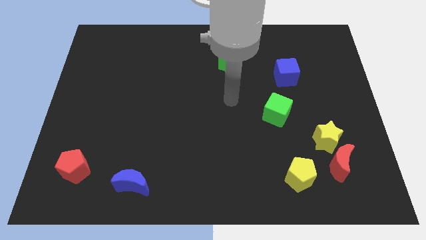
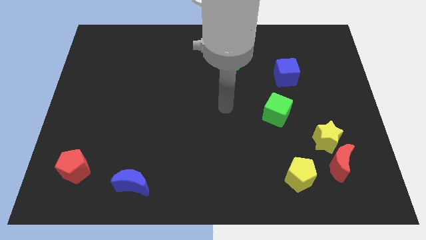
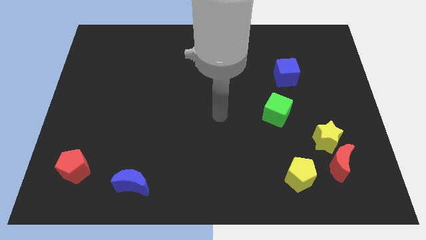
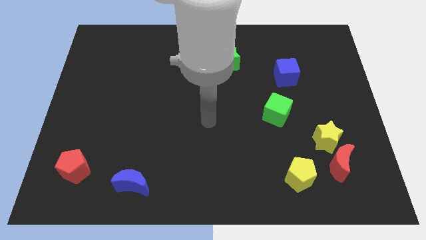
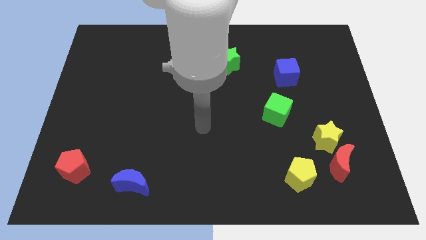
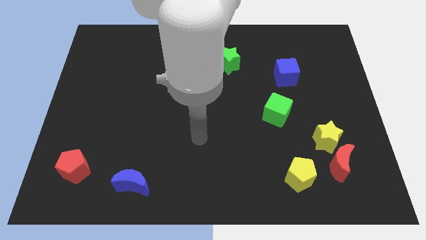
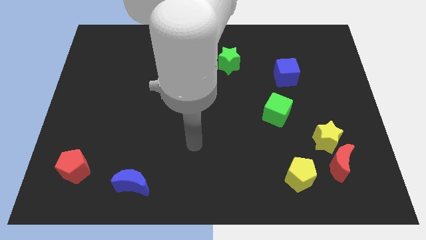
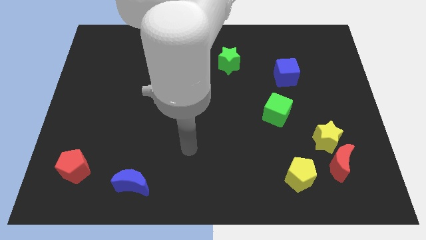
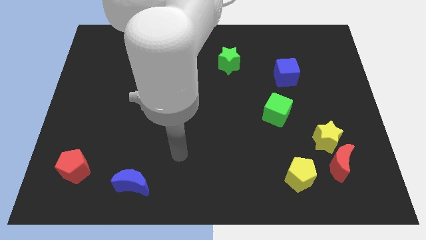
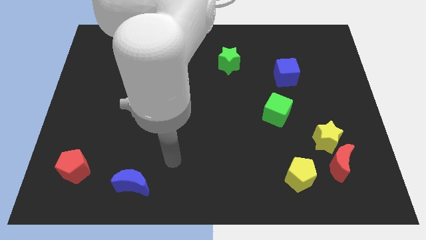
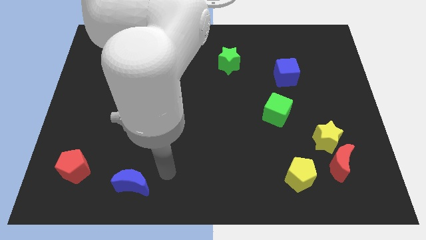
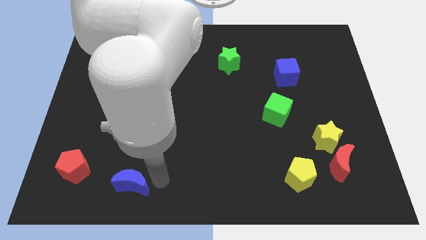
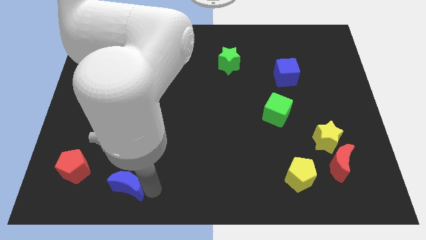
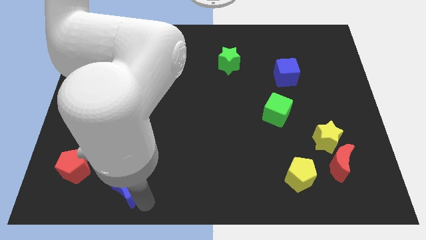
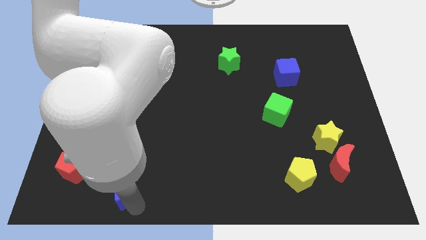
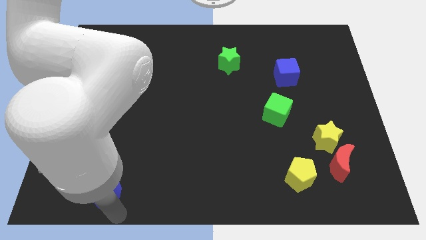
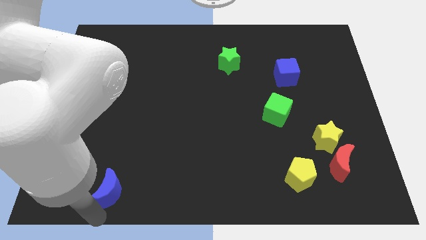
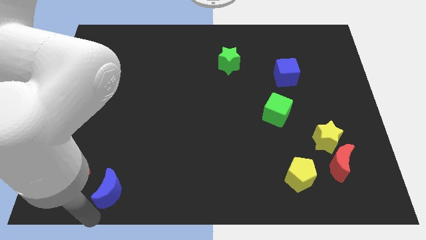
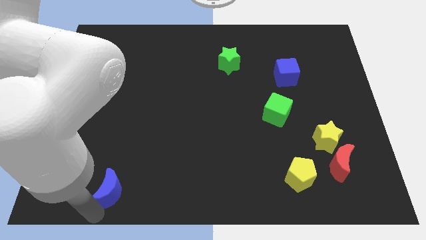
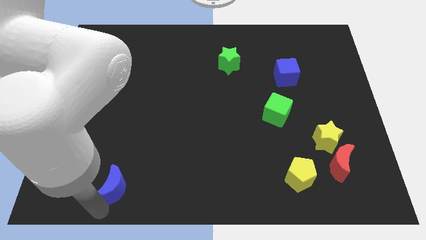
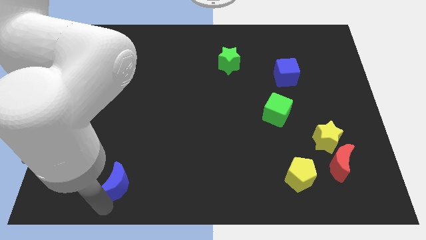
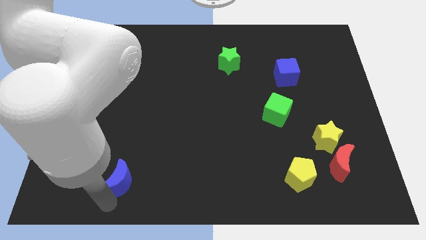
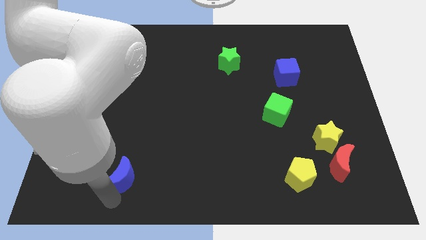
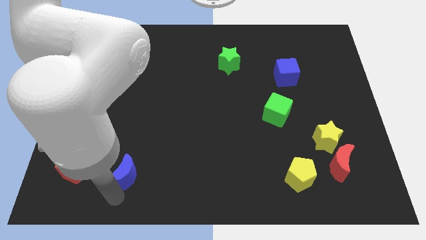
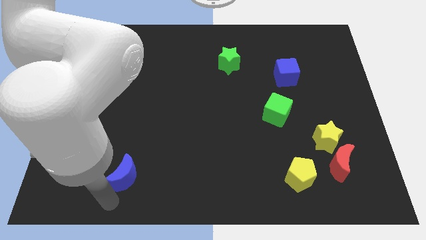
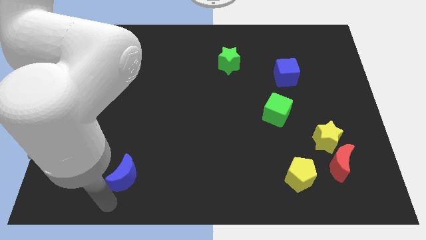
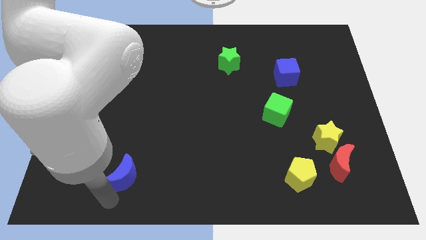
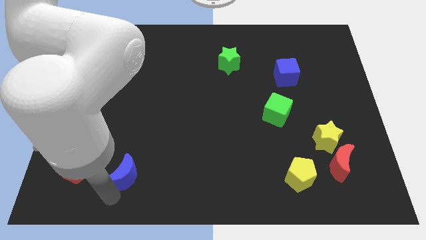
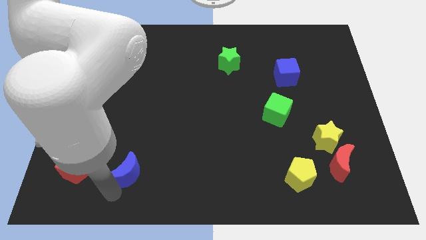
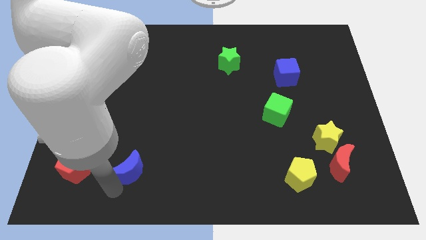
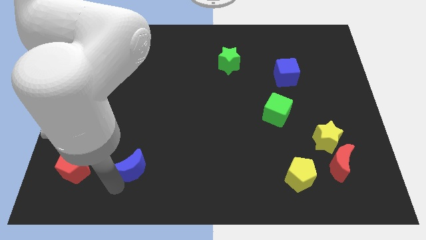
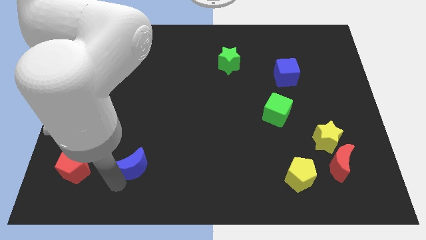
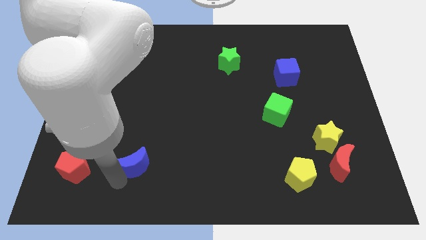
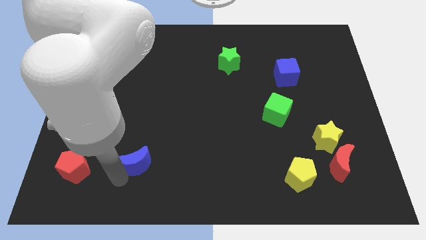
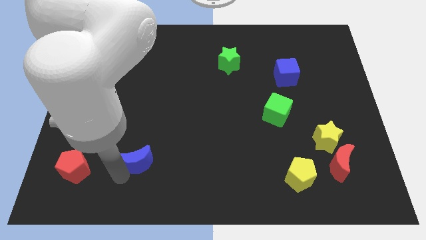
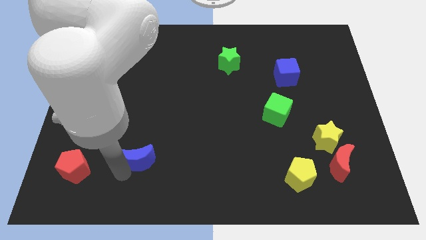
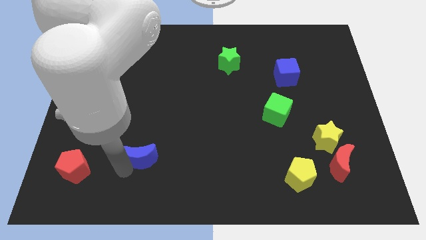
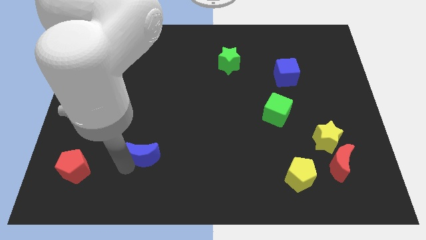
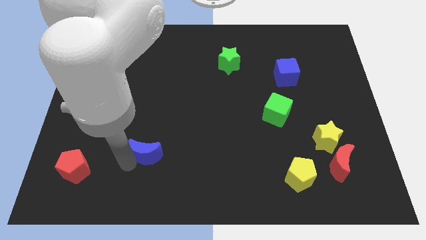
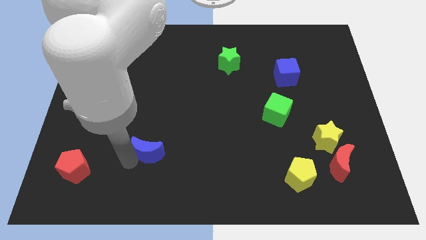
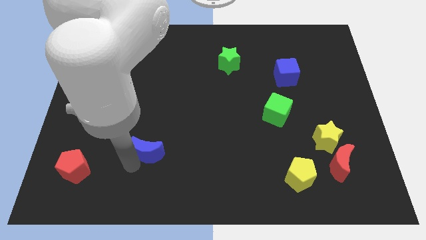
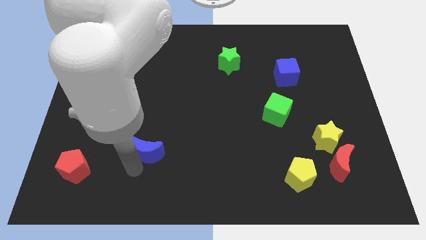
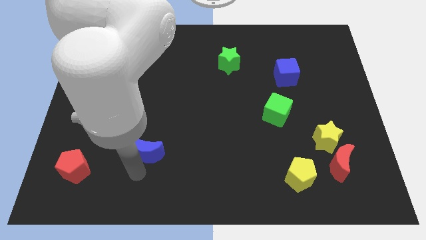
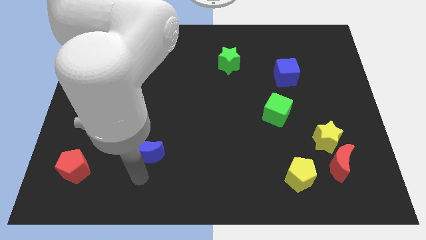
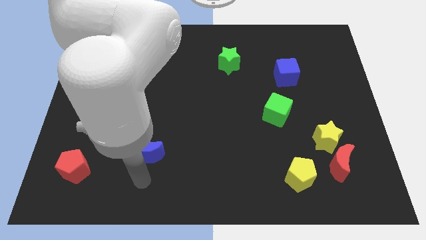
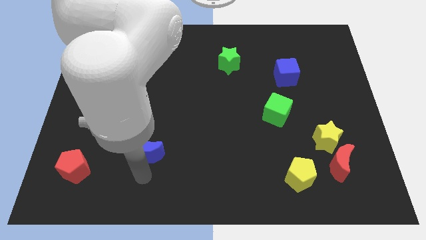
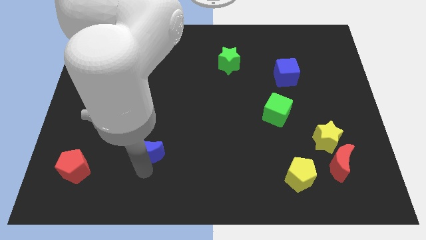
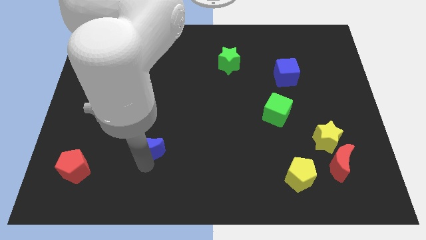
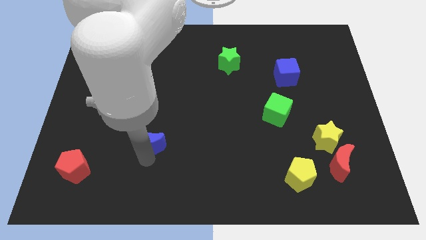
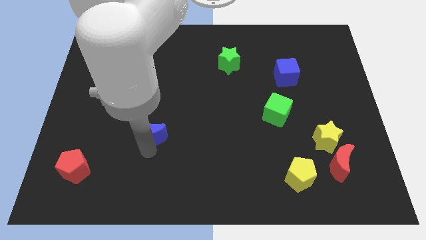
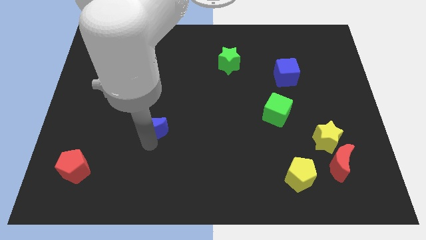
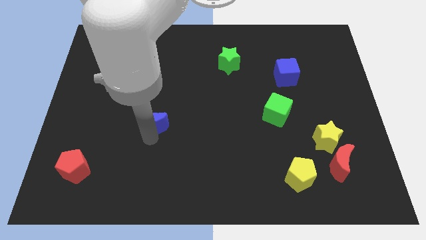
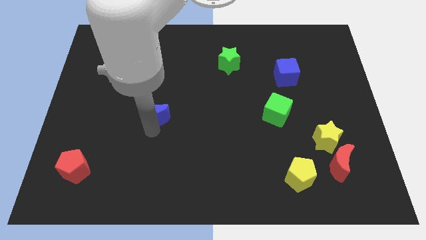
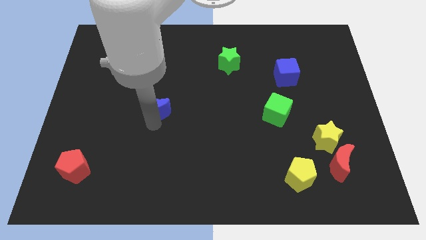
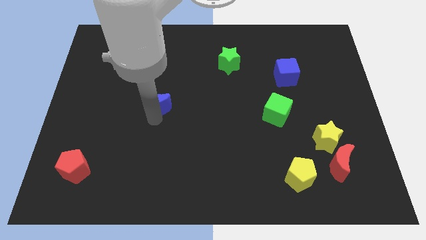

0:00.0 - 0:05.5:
push the blue moon up

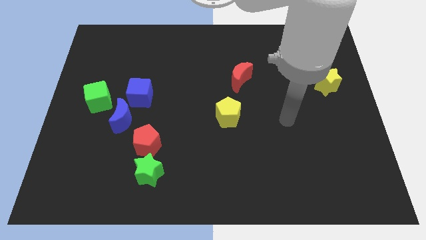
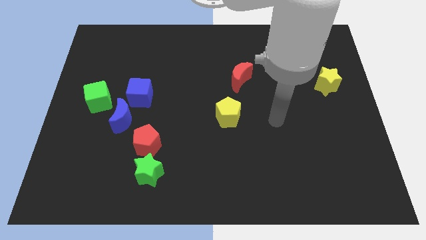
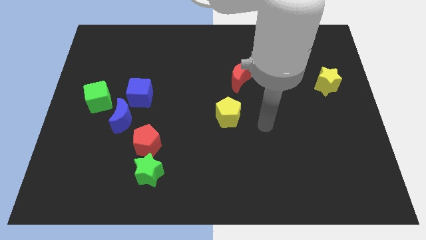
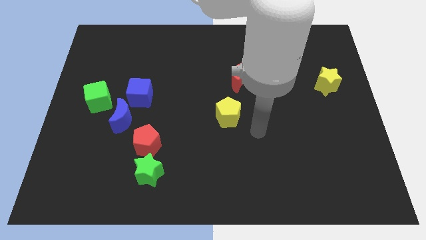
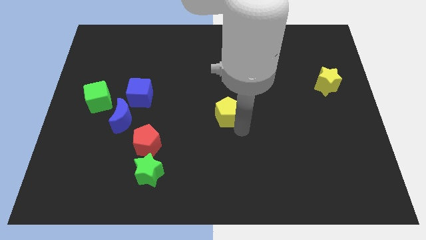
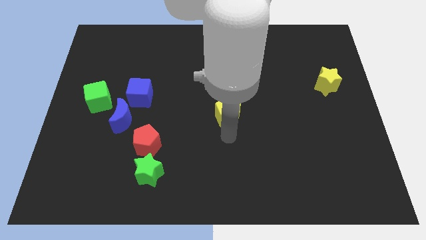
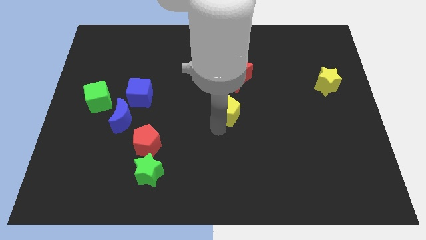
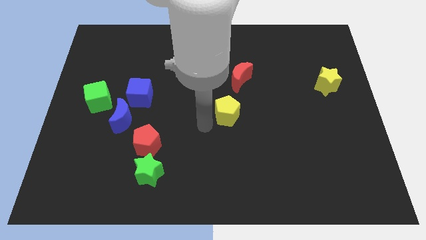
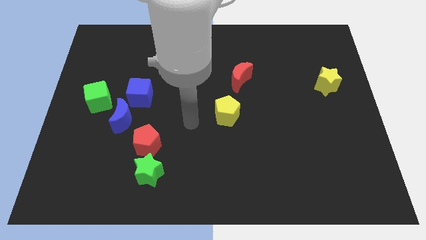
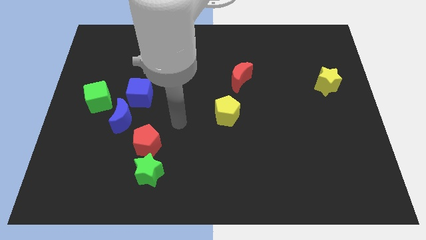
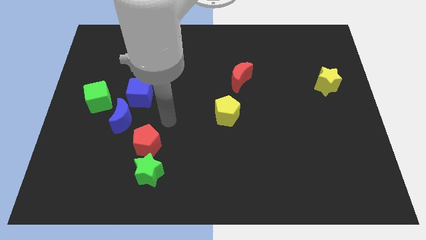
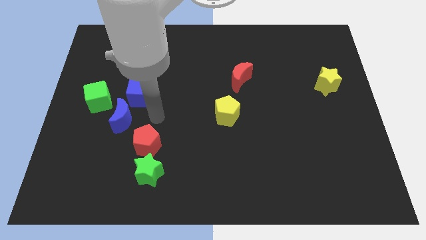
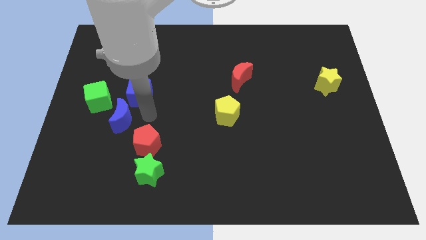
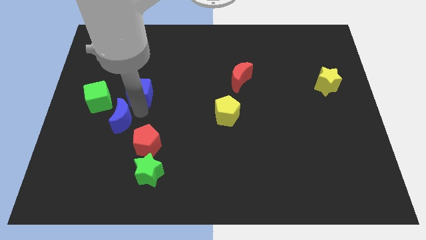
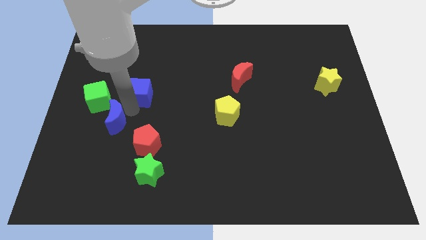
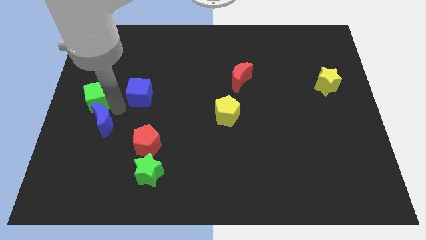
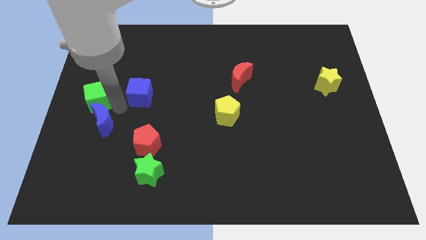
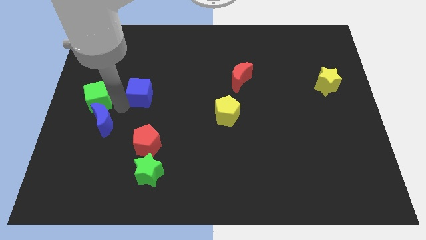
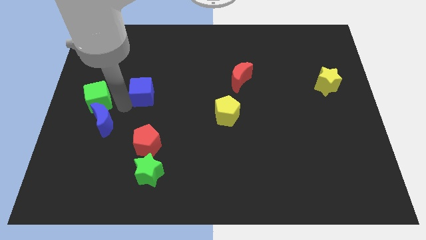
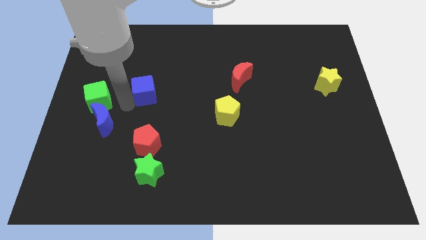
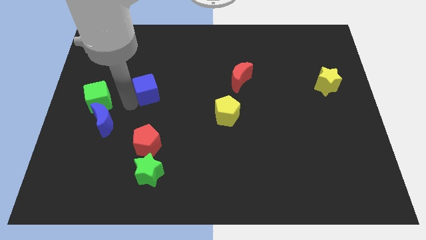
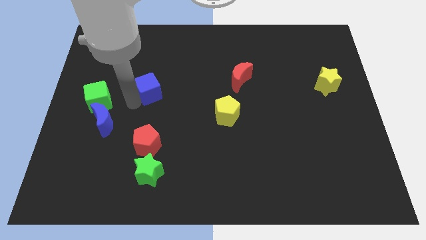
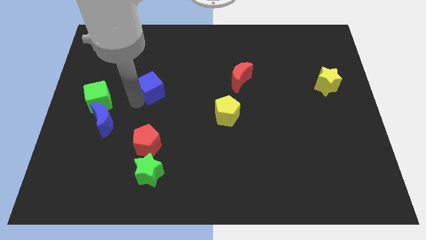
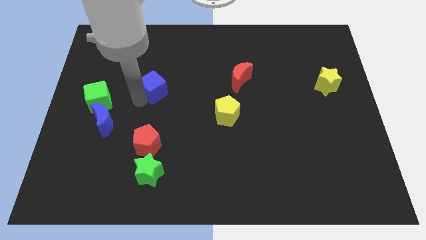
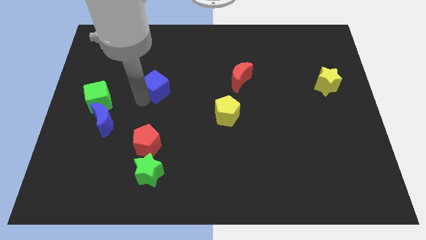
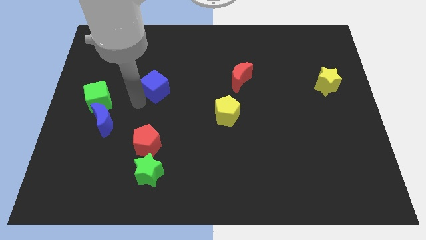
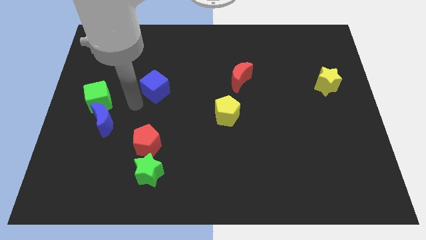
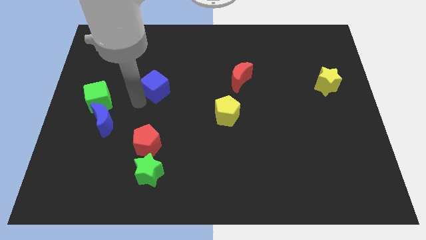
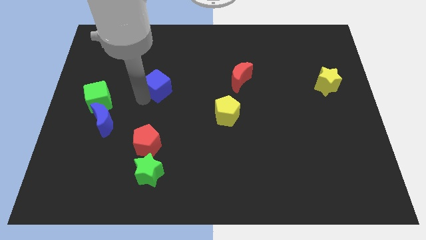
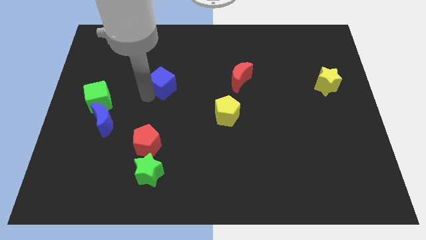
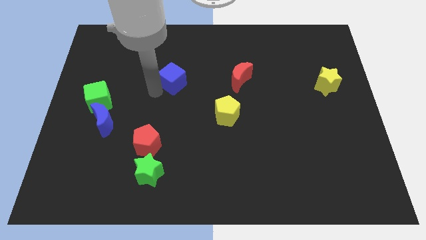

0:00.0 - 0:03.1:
slightly slide the blue cube upwards and then to the right
